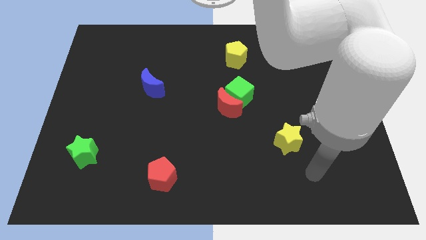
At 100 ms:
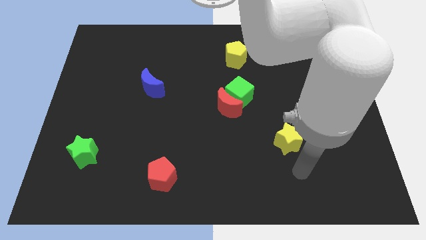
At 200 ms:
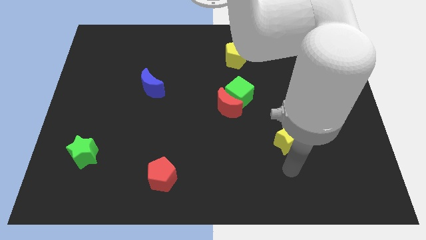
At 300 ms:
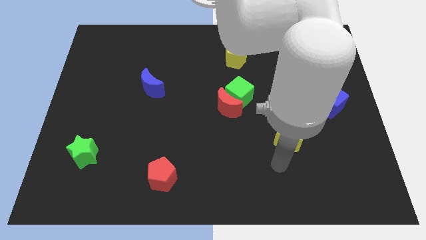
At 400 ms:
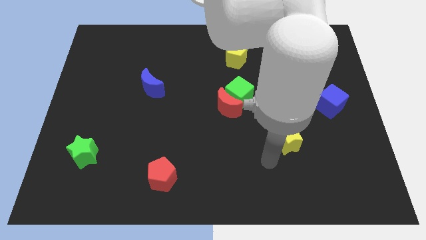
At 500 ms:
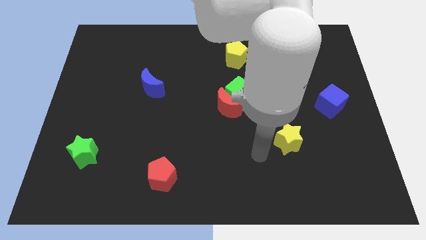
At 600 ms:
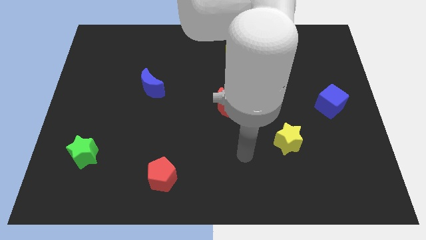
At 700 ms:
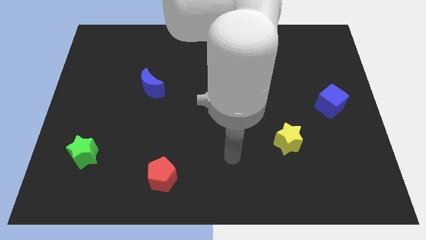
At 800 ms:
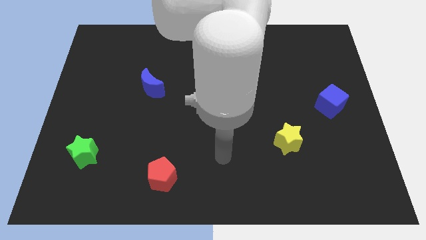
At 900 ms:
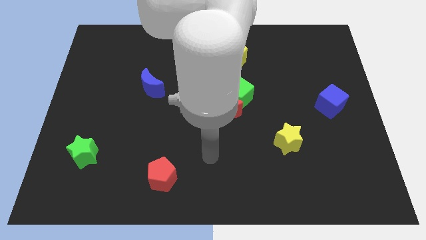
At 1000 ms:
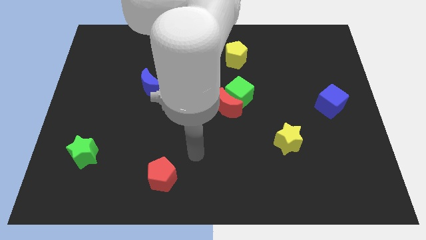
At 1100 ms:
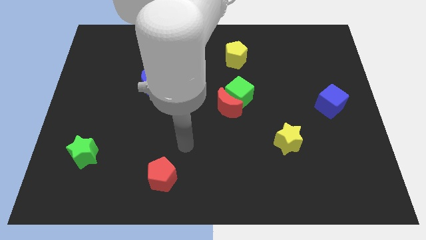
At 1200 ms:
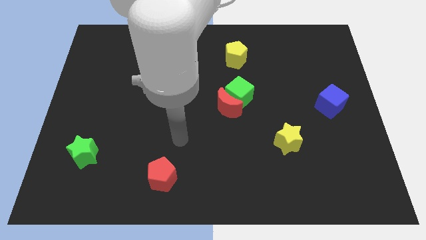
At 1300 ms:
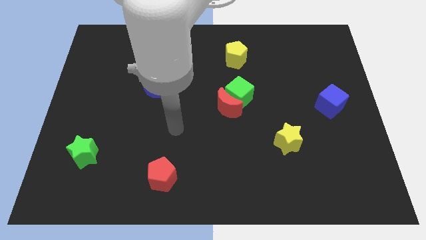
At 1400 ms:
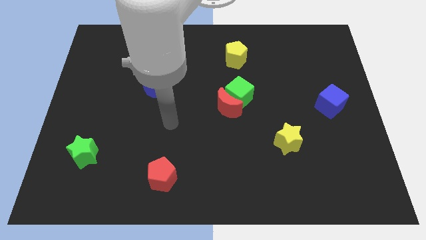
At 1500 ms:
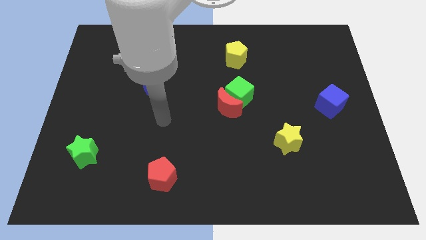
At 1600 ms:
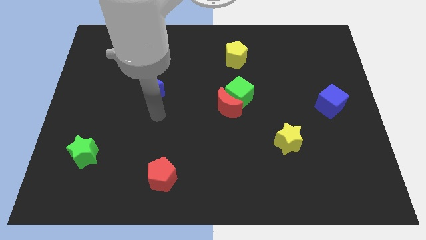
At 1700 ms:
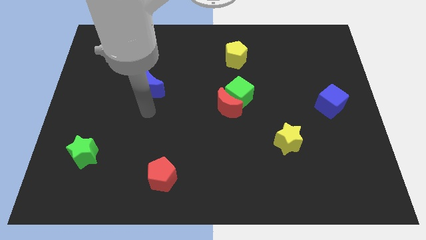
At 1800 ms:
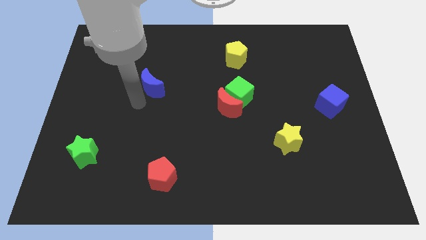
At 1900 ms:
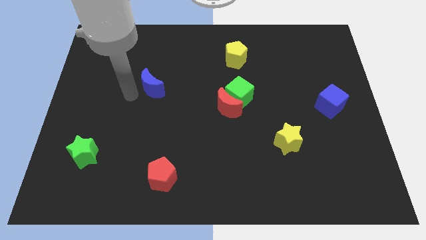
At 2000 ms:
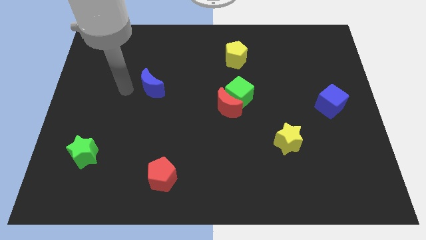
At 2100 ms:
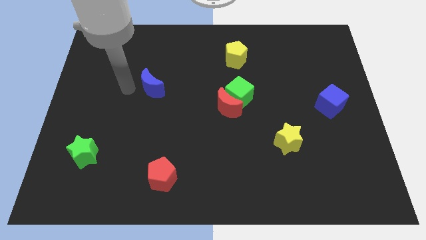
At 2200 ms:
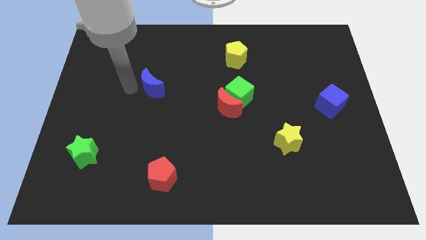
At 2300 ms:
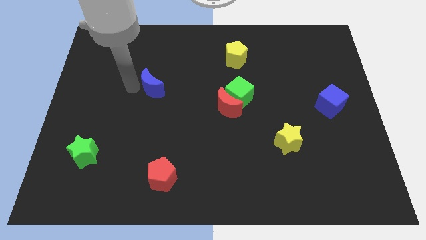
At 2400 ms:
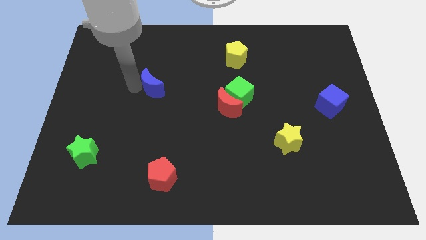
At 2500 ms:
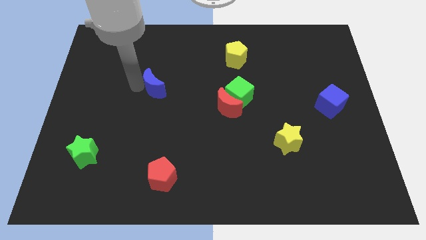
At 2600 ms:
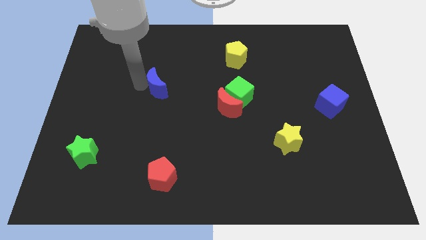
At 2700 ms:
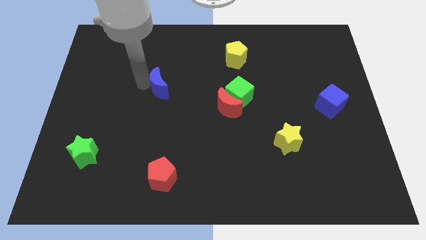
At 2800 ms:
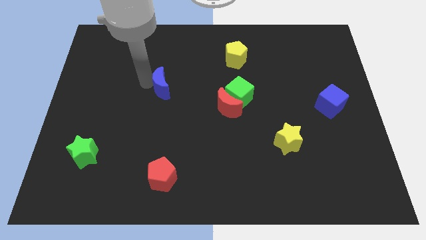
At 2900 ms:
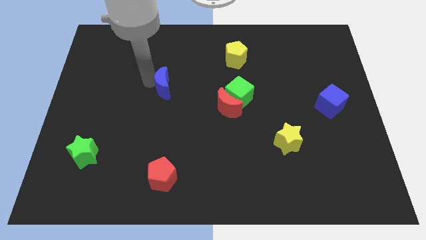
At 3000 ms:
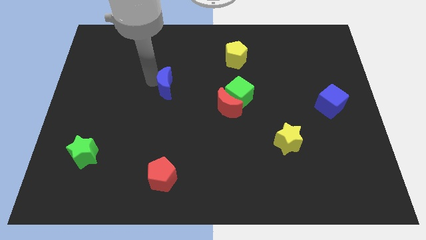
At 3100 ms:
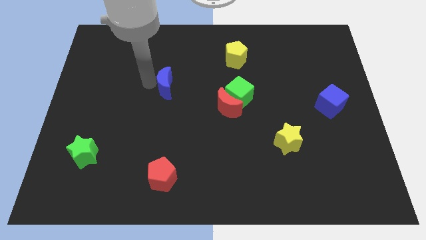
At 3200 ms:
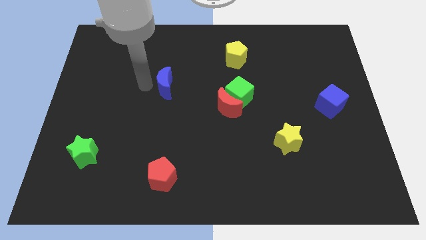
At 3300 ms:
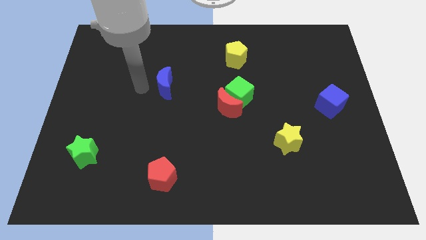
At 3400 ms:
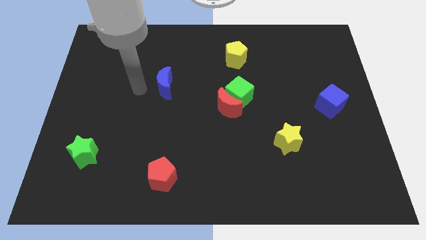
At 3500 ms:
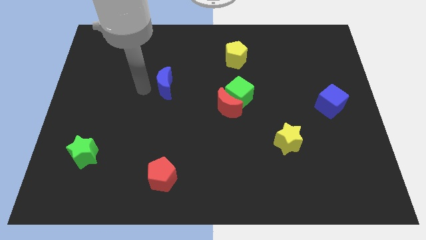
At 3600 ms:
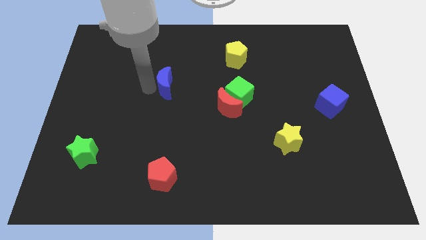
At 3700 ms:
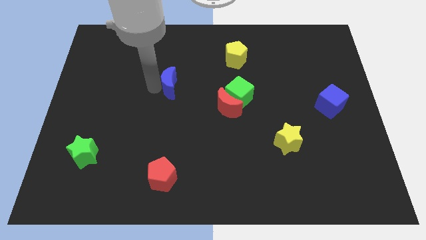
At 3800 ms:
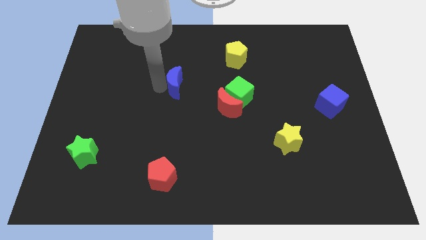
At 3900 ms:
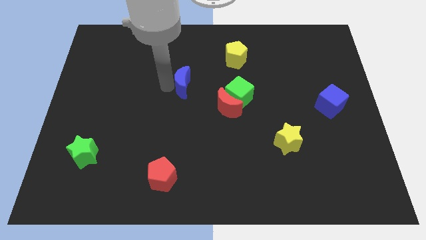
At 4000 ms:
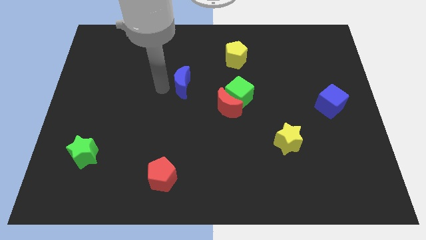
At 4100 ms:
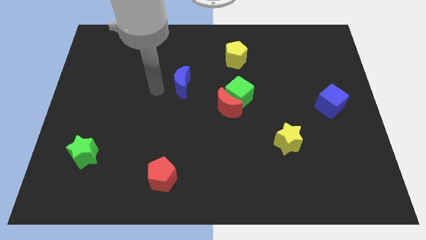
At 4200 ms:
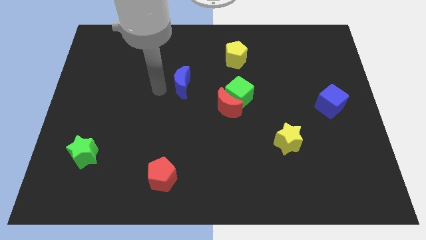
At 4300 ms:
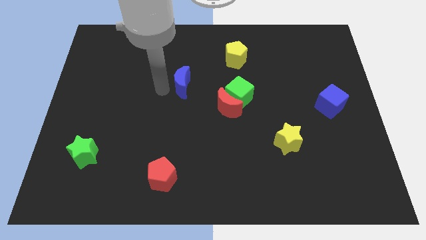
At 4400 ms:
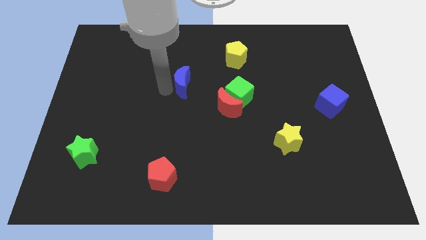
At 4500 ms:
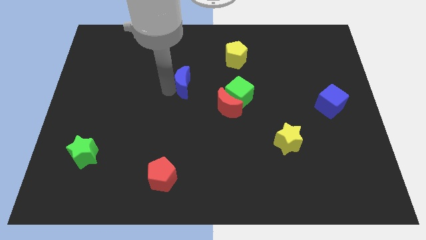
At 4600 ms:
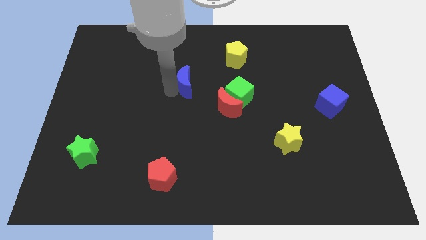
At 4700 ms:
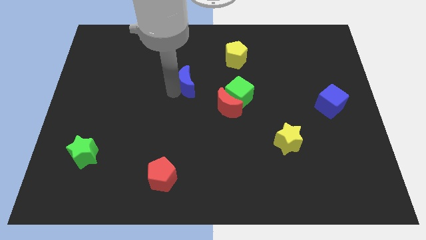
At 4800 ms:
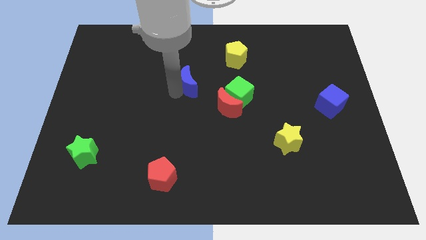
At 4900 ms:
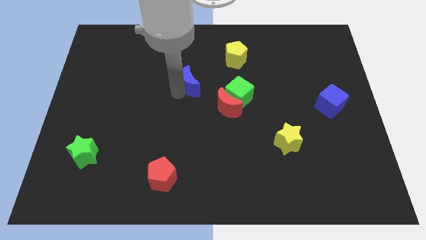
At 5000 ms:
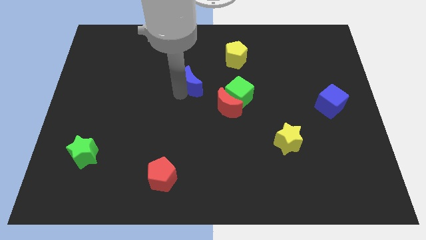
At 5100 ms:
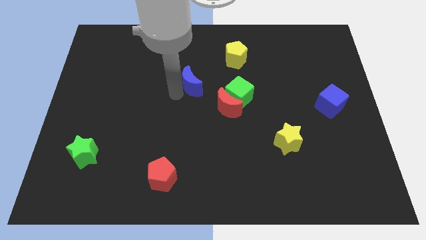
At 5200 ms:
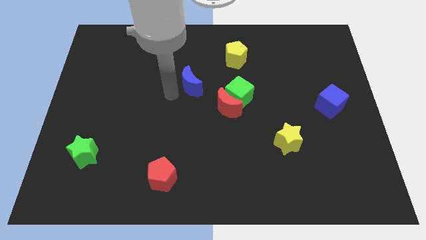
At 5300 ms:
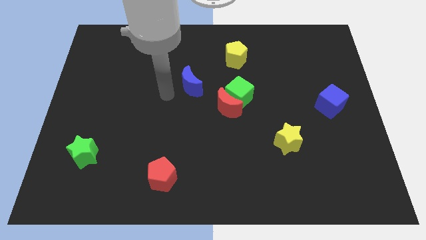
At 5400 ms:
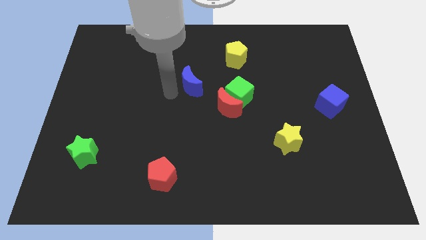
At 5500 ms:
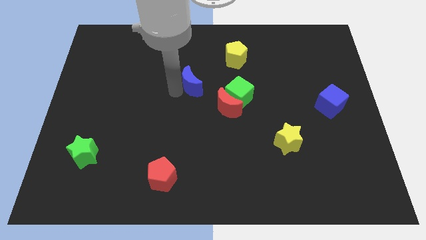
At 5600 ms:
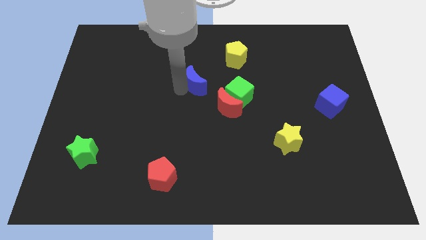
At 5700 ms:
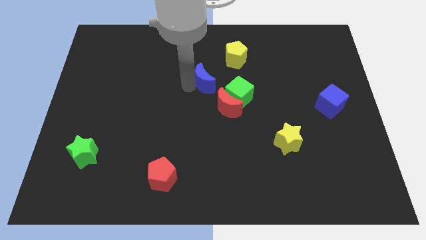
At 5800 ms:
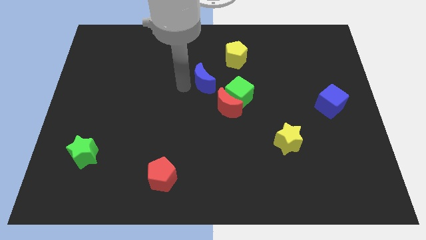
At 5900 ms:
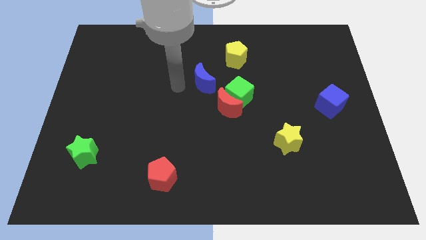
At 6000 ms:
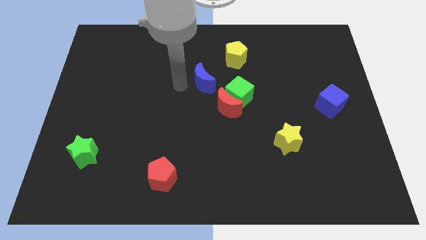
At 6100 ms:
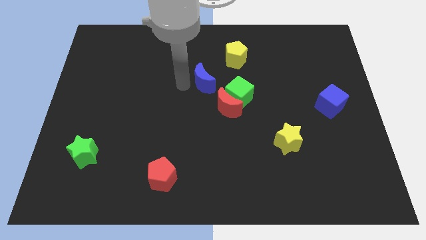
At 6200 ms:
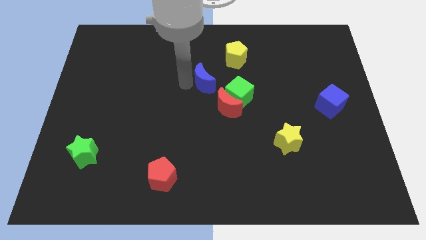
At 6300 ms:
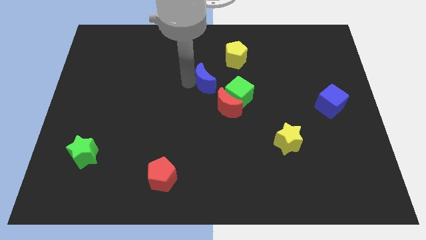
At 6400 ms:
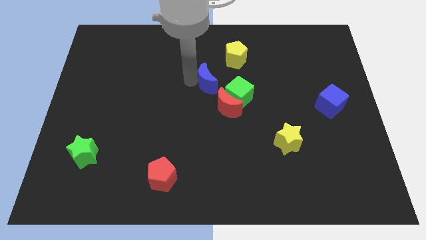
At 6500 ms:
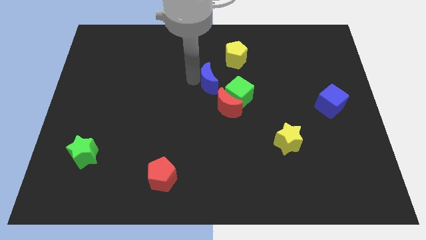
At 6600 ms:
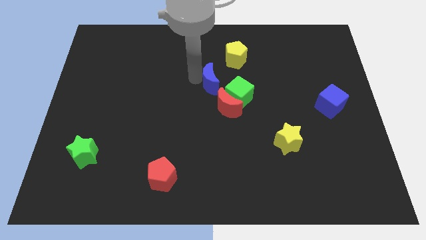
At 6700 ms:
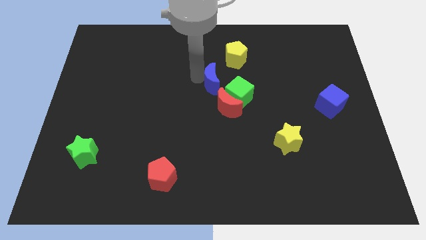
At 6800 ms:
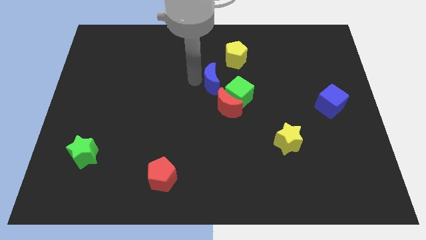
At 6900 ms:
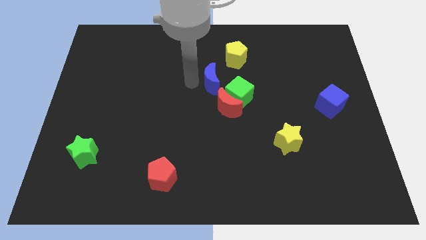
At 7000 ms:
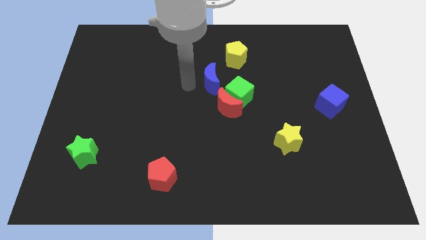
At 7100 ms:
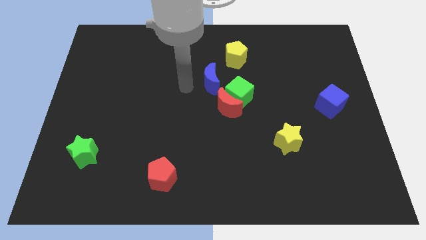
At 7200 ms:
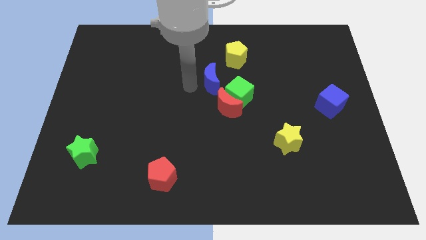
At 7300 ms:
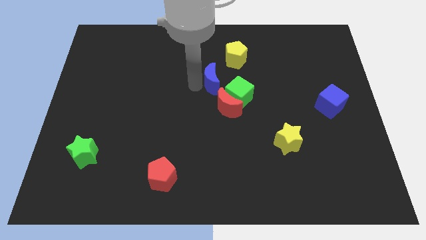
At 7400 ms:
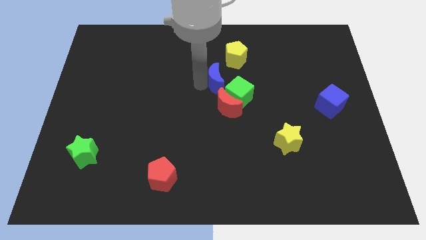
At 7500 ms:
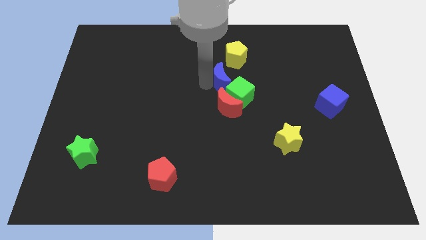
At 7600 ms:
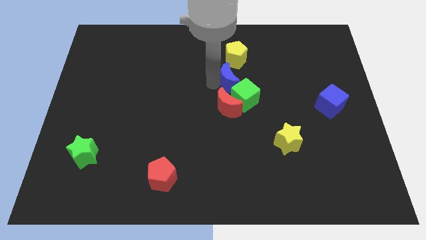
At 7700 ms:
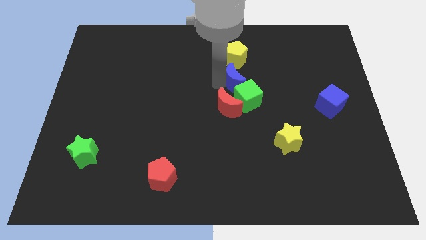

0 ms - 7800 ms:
move the blue moon to the right

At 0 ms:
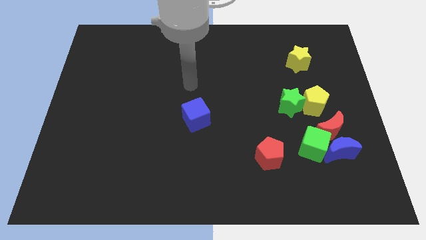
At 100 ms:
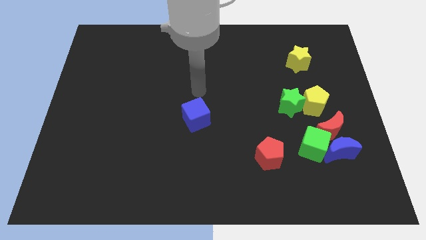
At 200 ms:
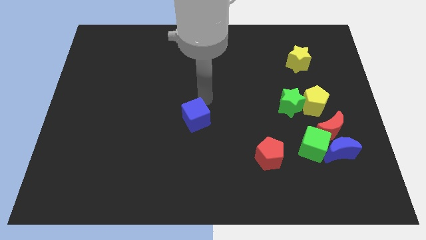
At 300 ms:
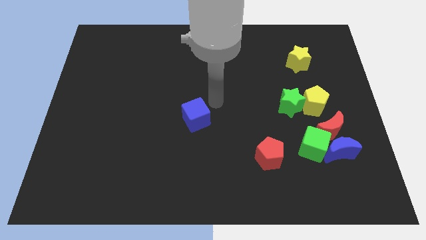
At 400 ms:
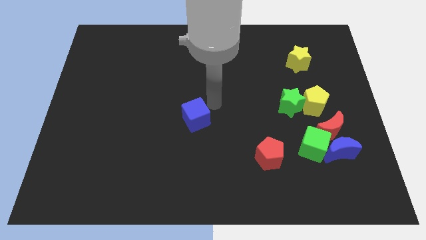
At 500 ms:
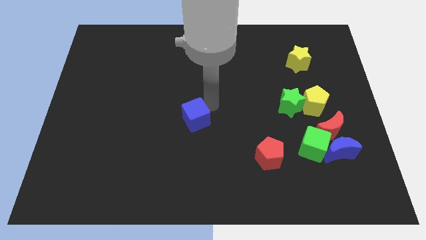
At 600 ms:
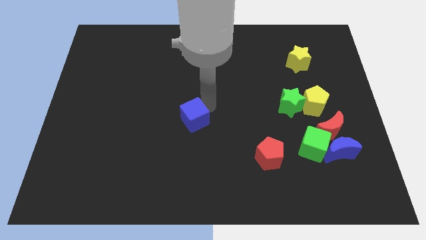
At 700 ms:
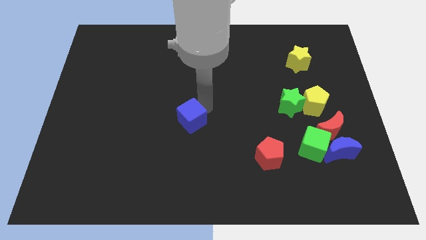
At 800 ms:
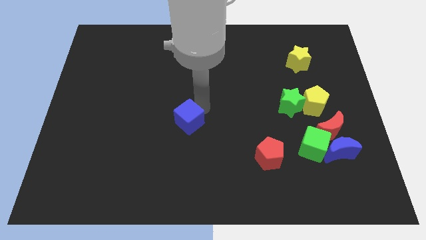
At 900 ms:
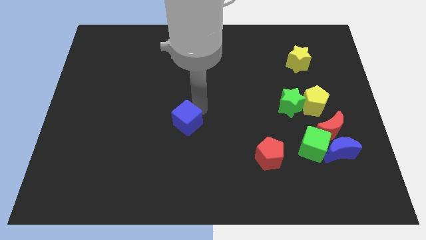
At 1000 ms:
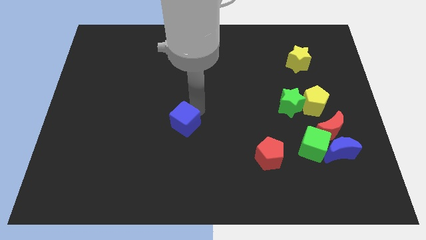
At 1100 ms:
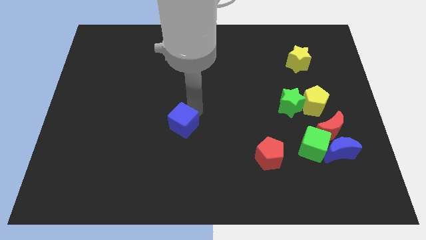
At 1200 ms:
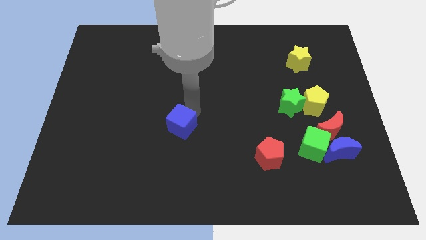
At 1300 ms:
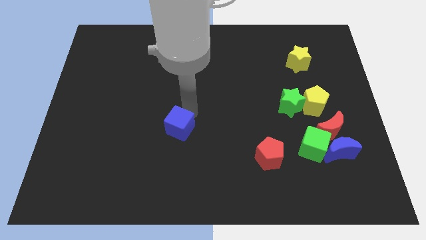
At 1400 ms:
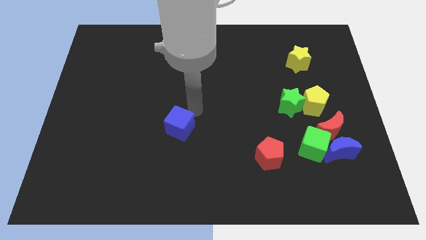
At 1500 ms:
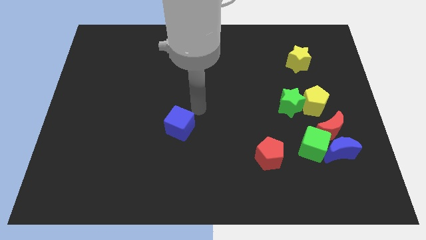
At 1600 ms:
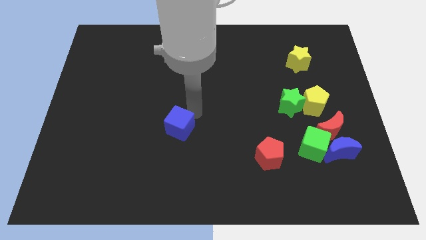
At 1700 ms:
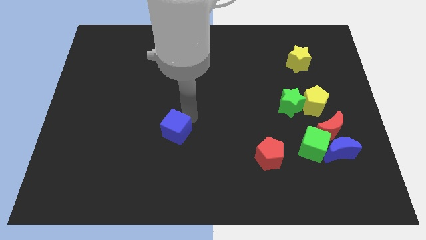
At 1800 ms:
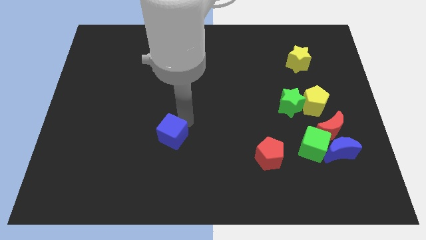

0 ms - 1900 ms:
slide the blue cube somewhat diagonally down and left
